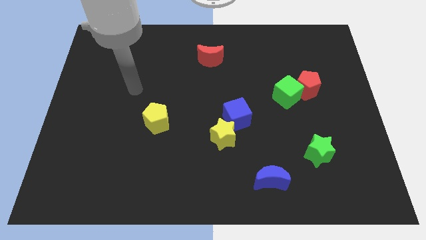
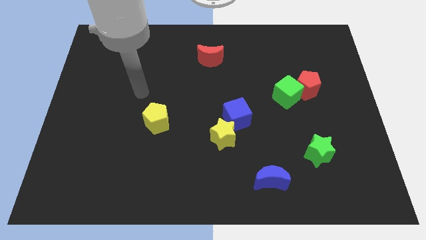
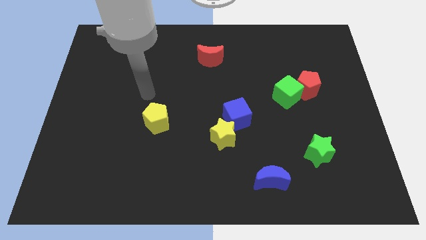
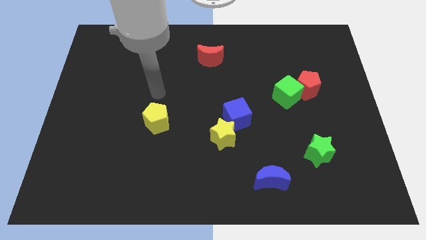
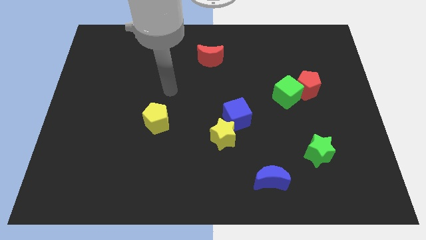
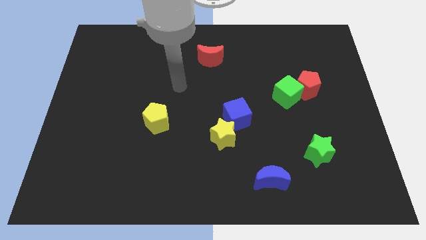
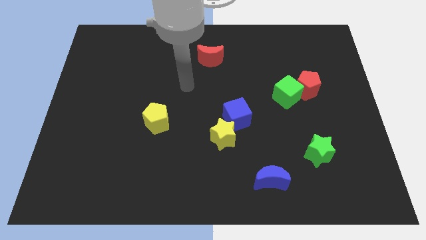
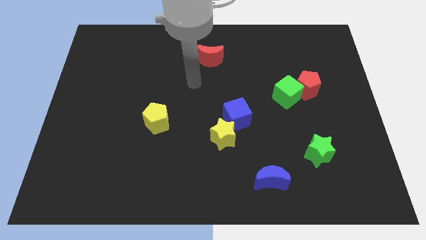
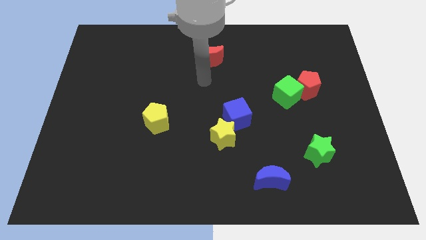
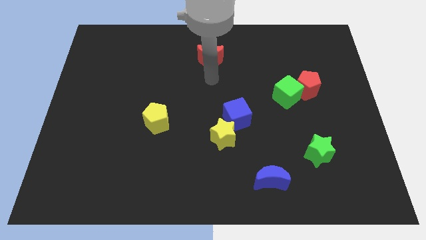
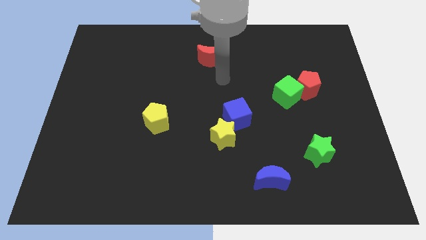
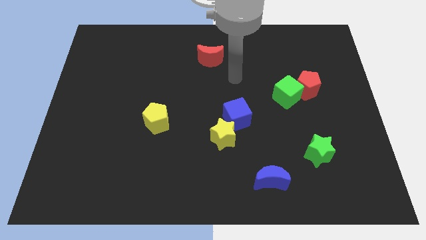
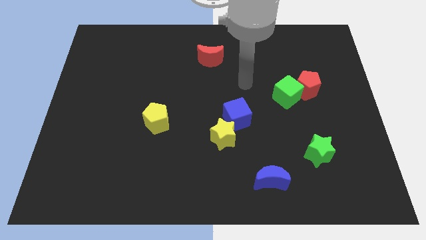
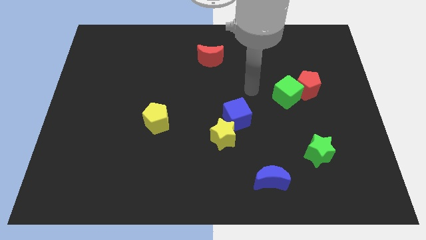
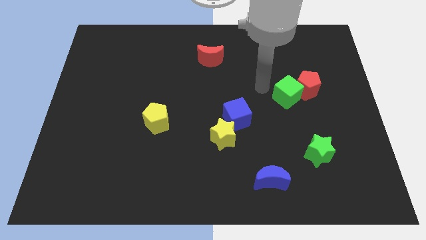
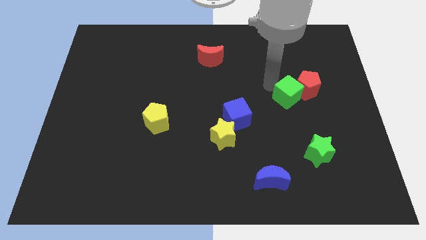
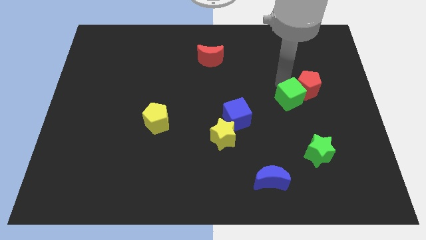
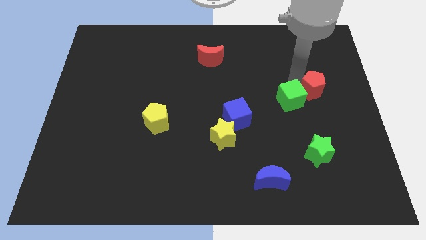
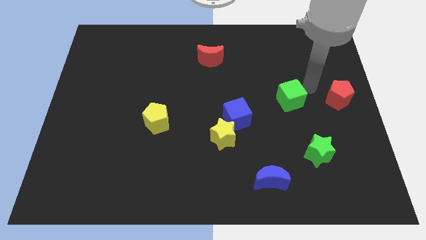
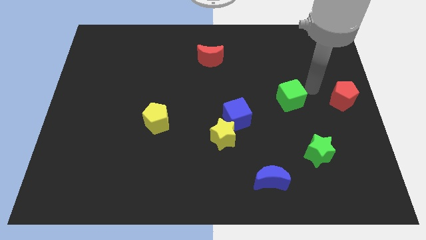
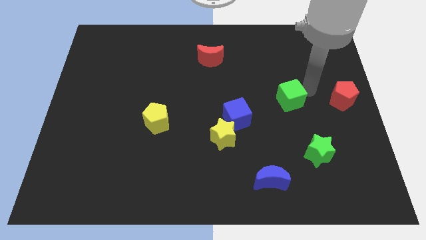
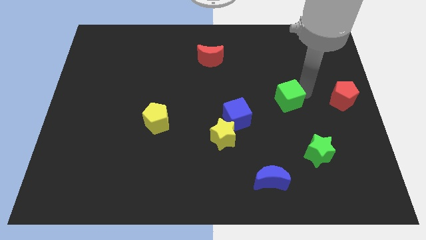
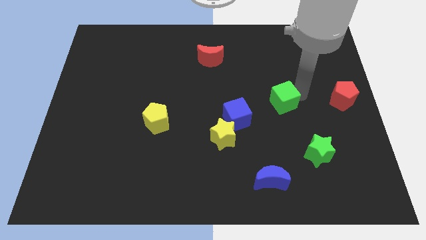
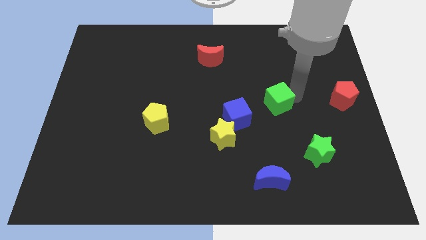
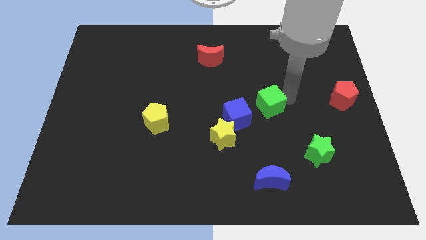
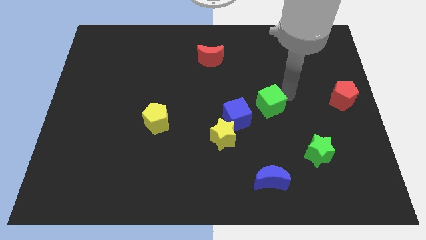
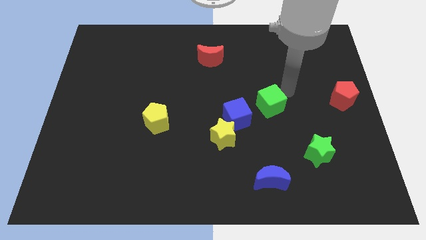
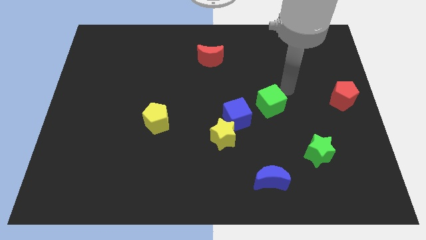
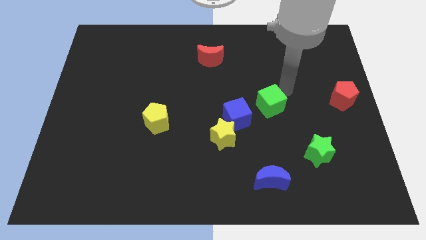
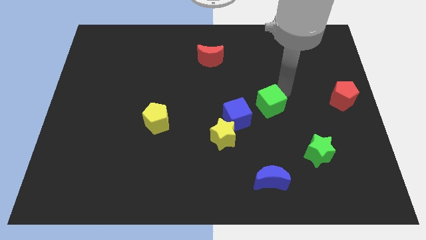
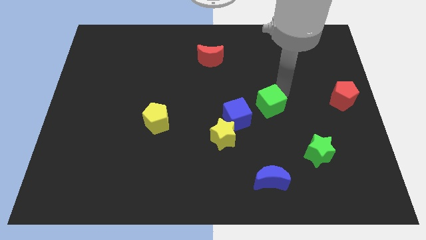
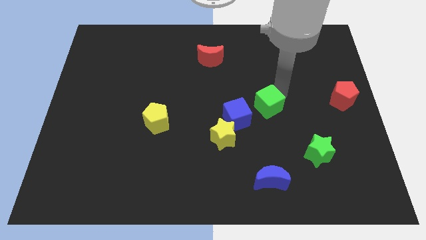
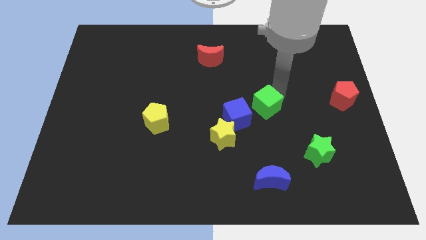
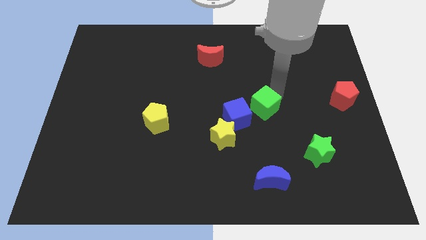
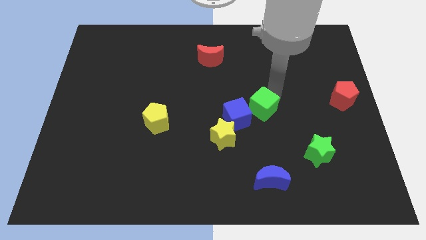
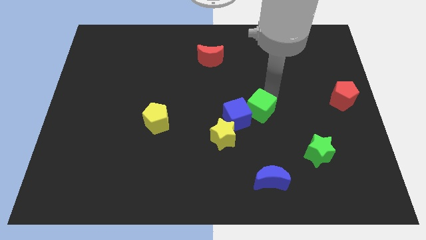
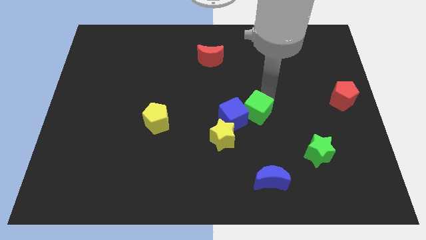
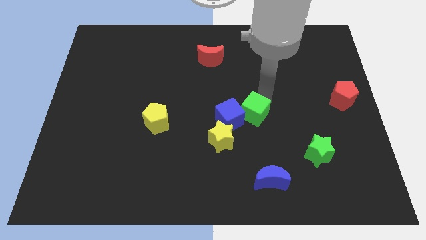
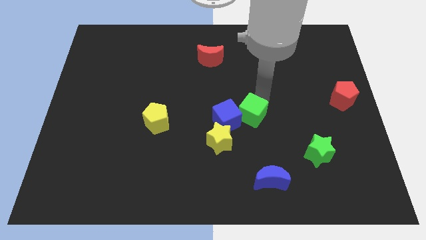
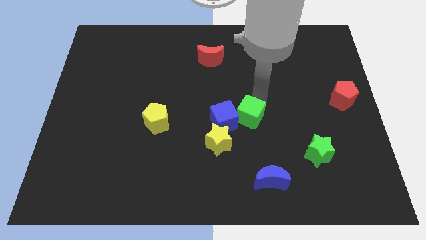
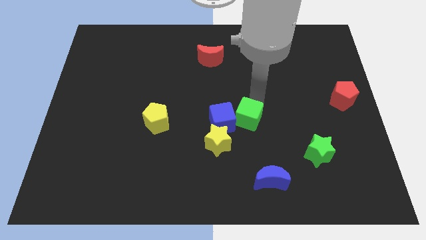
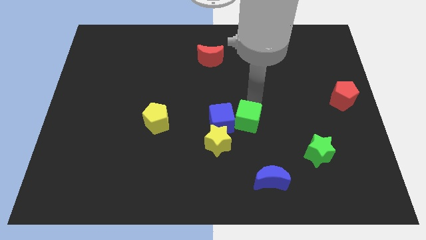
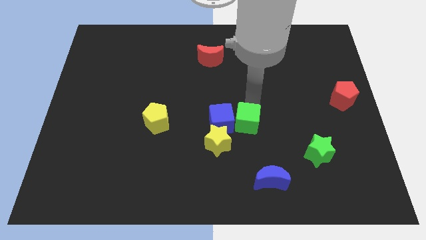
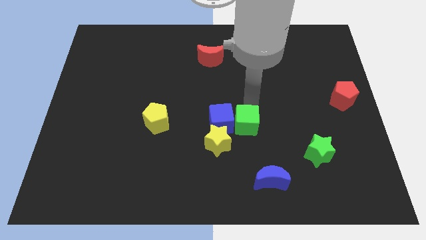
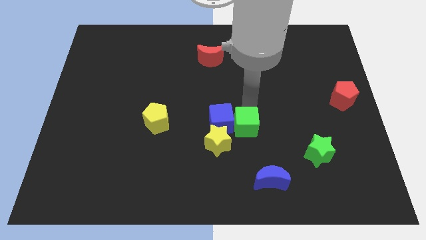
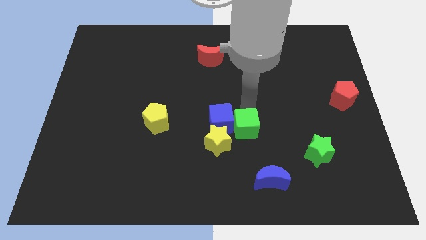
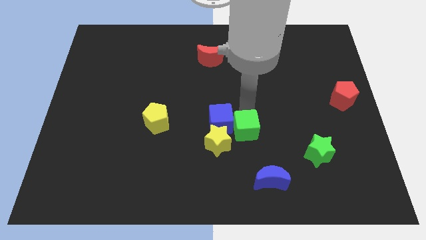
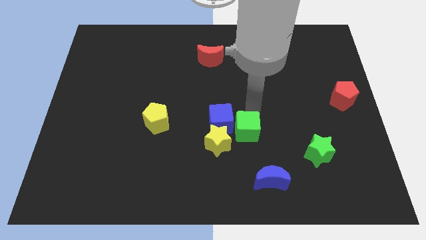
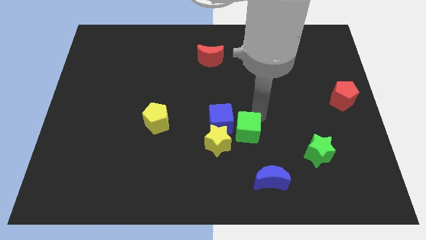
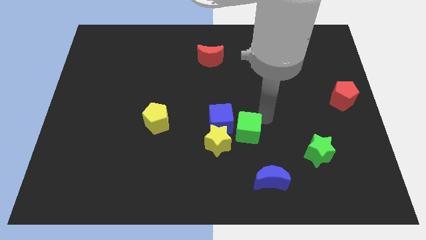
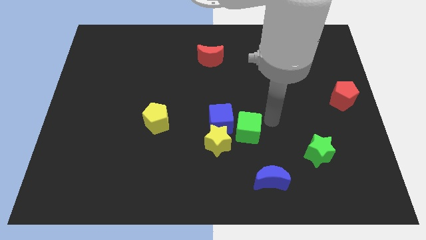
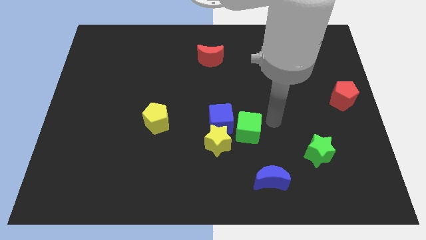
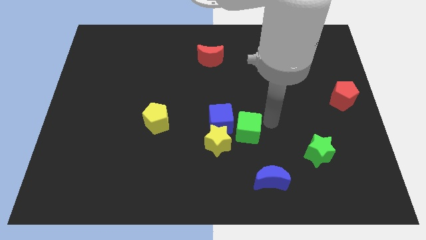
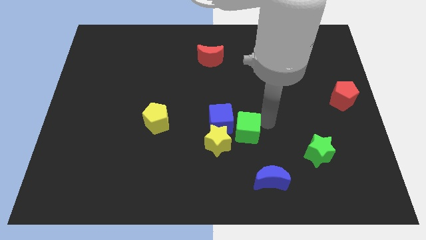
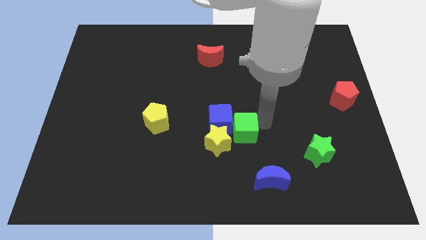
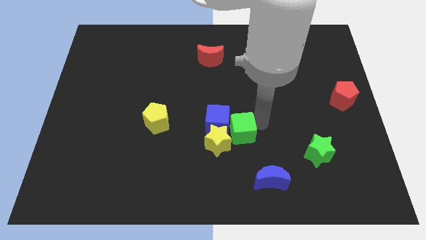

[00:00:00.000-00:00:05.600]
move the green cube towards the yellow star

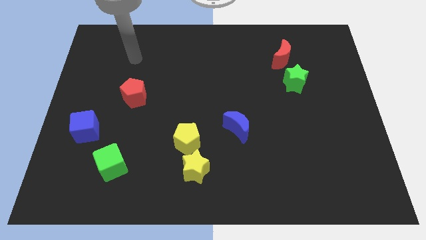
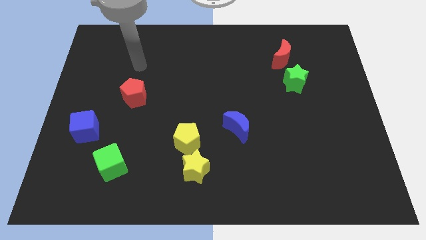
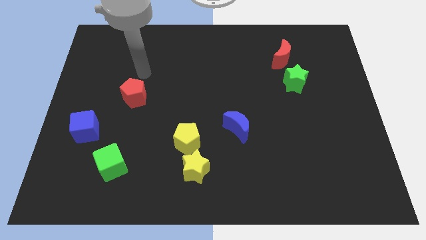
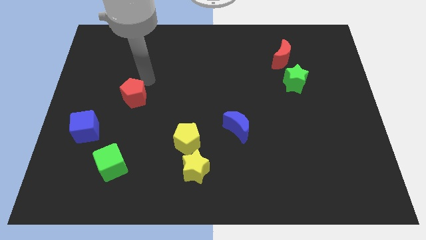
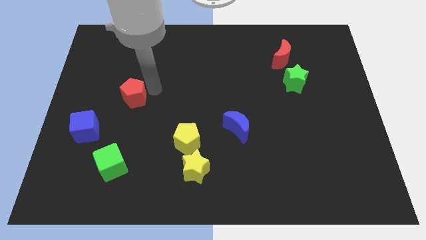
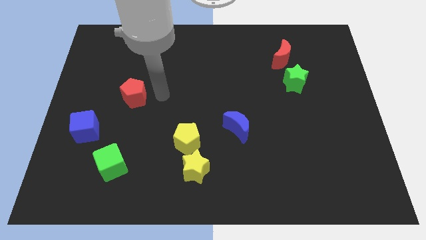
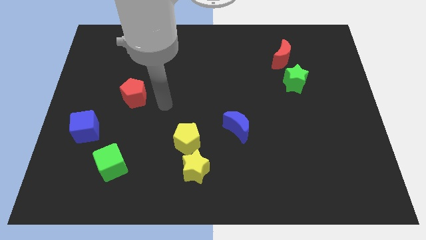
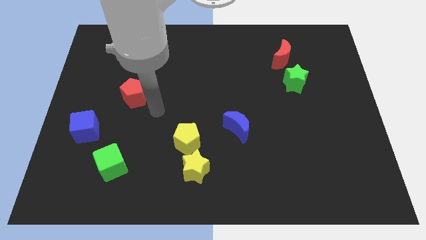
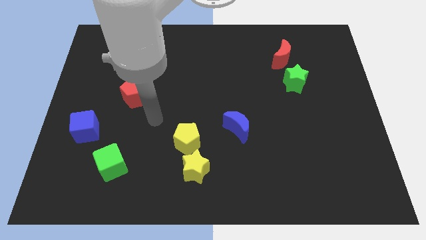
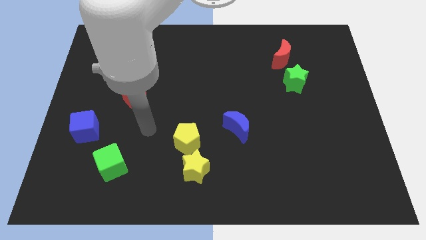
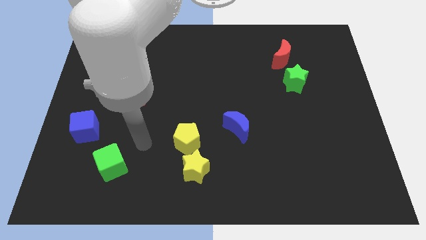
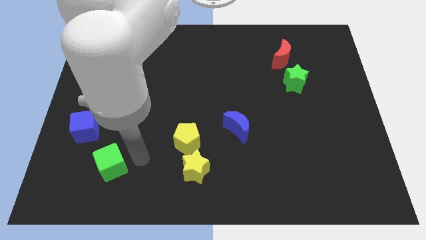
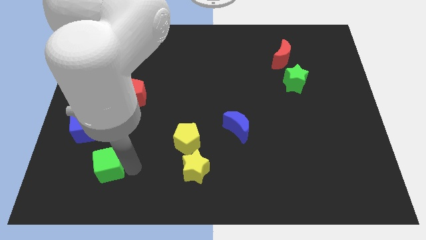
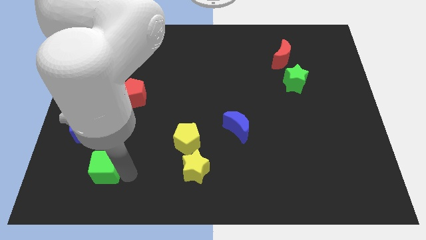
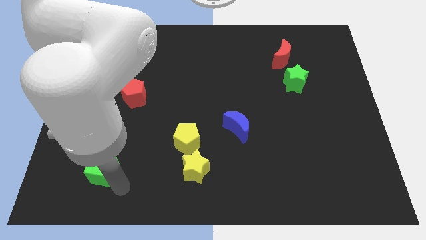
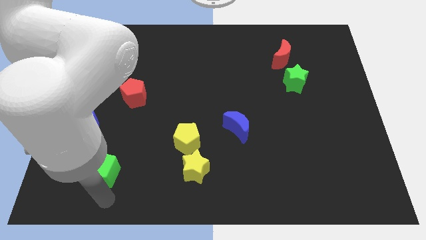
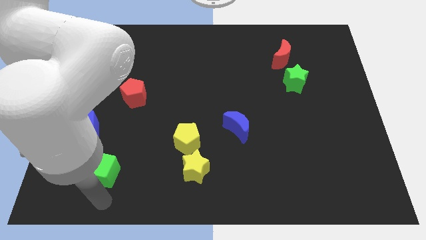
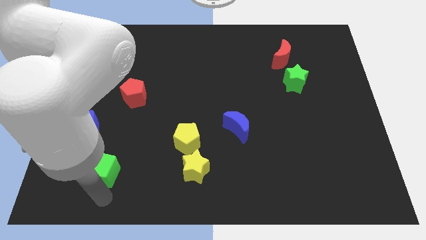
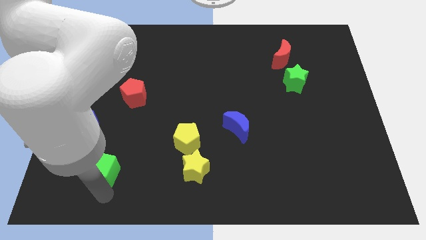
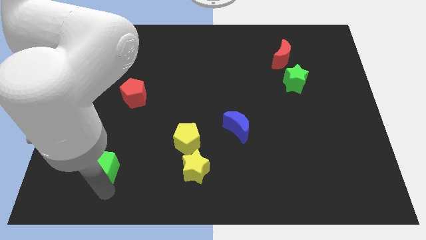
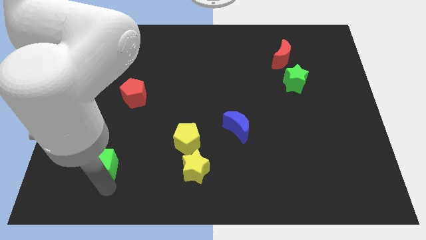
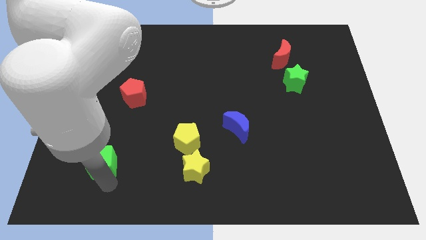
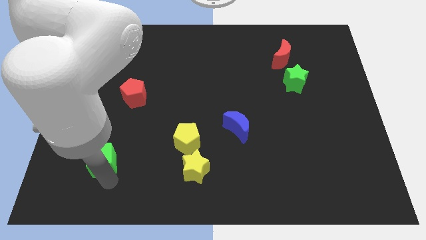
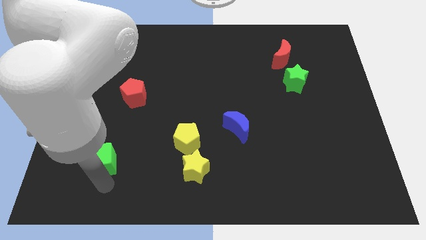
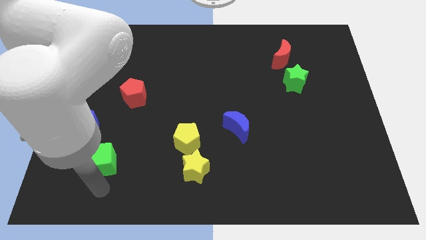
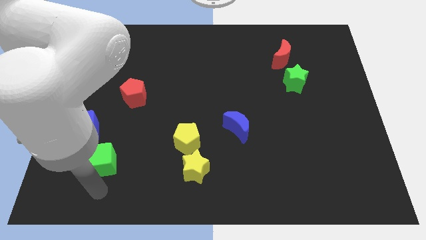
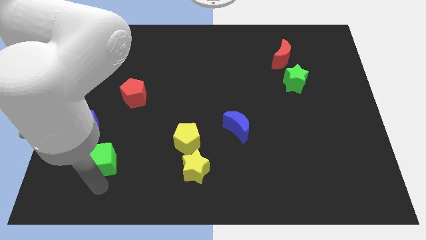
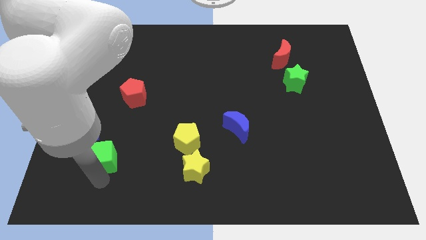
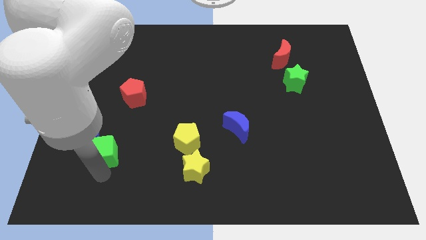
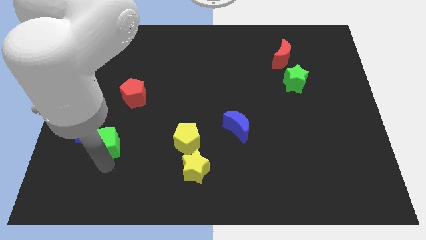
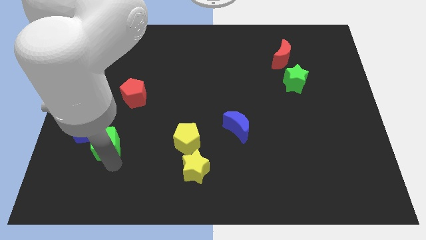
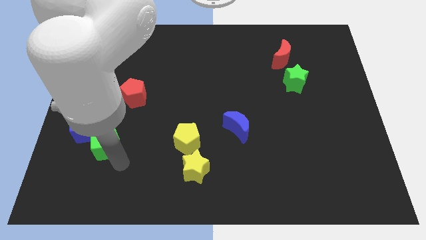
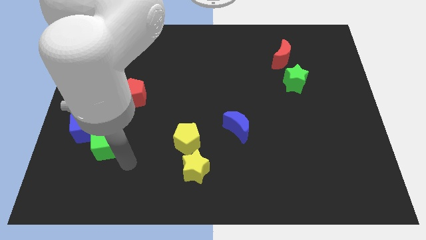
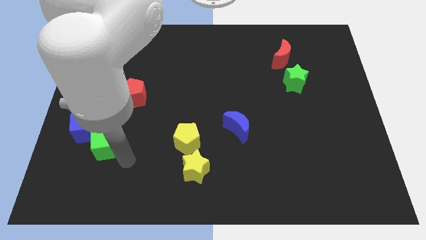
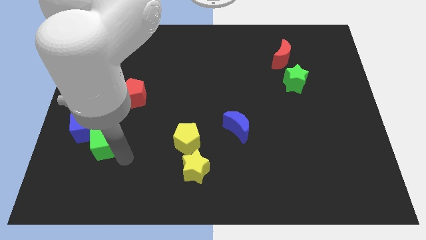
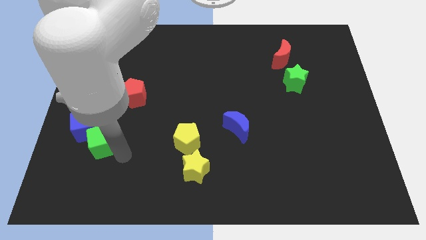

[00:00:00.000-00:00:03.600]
put the green cube towards the blue cube
